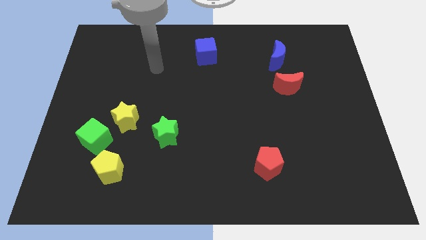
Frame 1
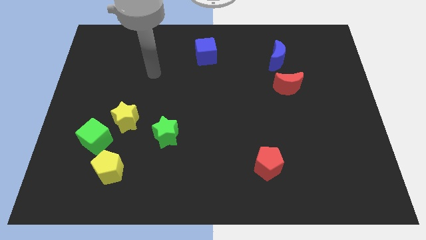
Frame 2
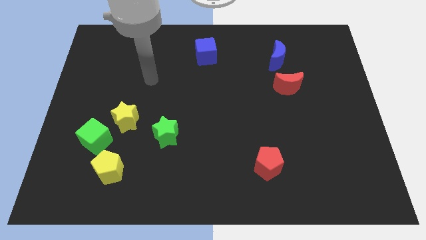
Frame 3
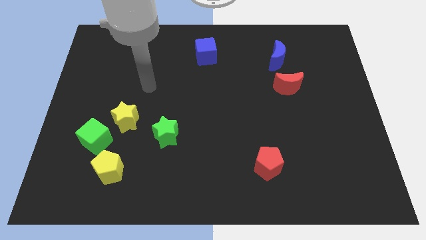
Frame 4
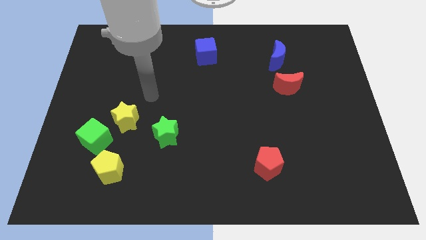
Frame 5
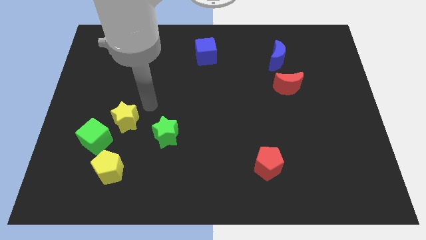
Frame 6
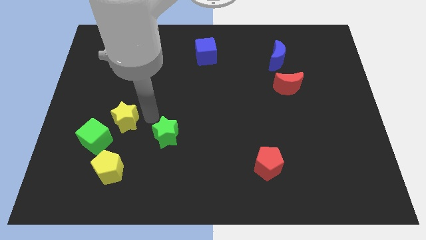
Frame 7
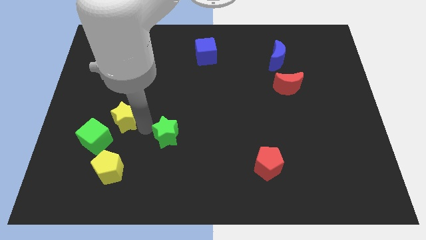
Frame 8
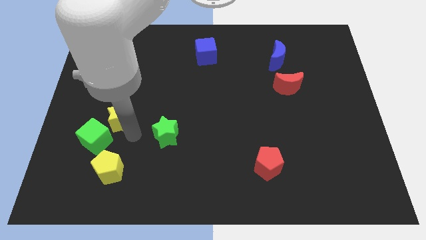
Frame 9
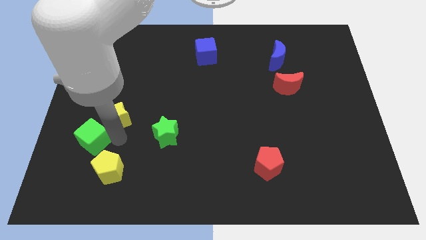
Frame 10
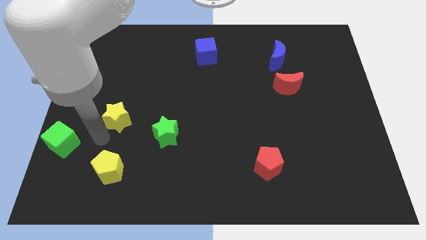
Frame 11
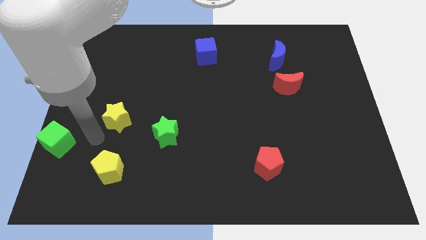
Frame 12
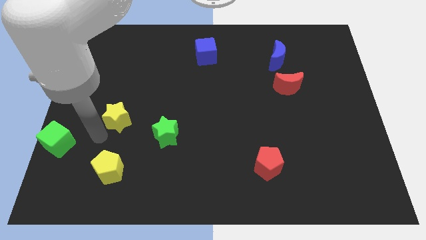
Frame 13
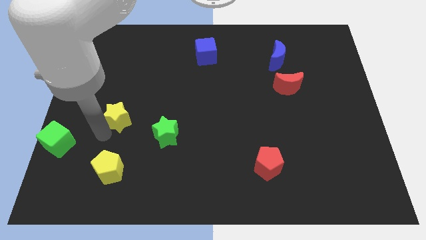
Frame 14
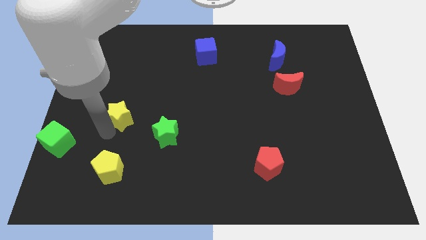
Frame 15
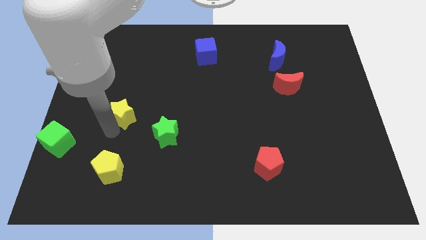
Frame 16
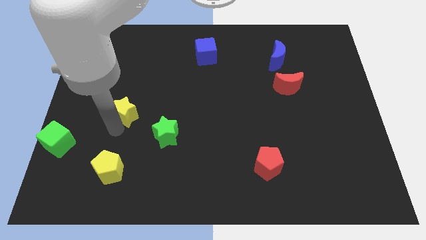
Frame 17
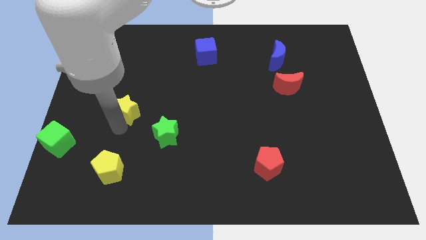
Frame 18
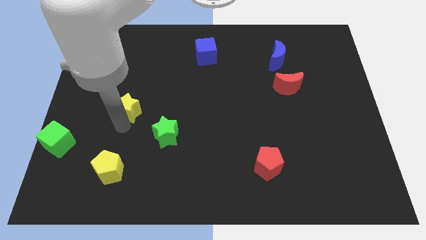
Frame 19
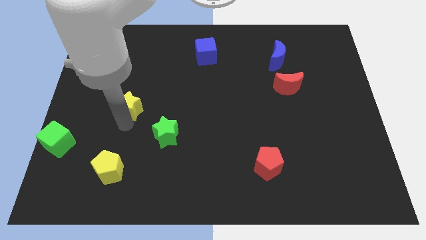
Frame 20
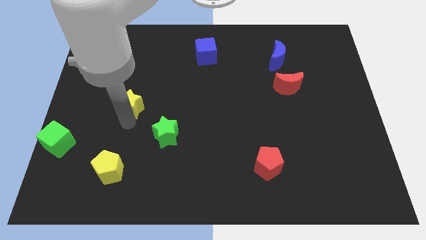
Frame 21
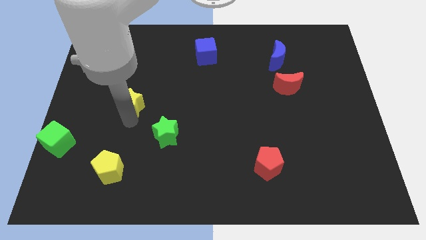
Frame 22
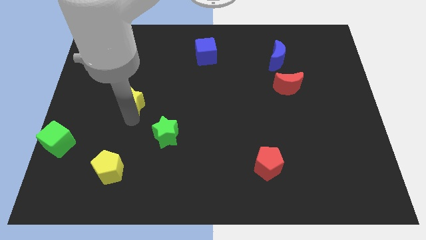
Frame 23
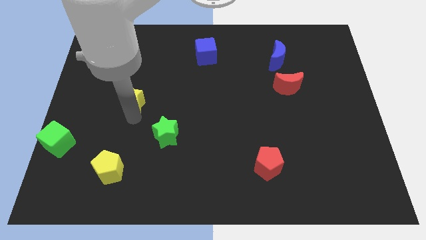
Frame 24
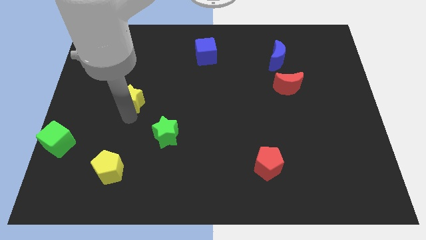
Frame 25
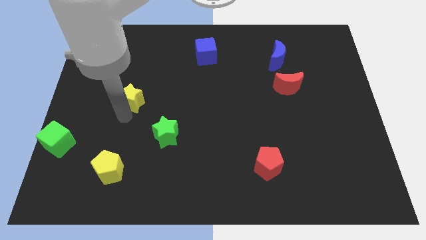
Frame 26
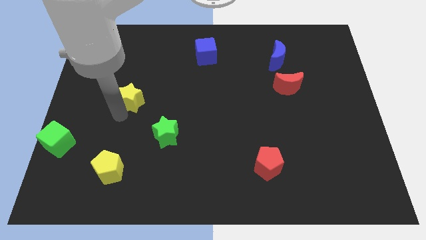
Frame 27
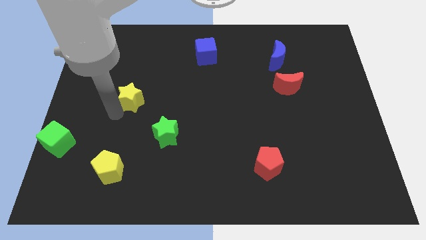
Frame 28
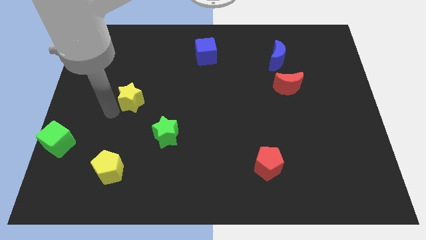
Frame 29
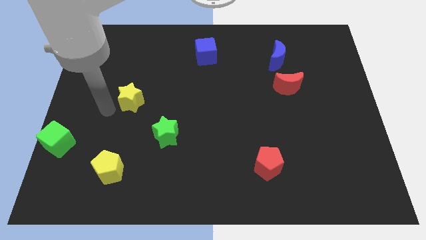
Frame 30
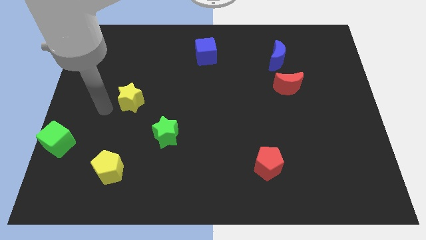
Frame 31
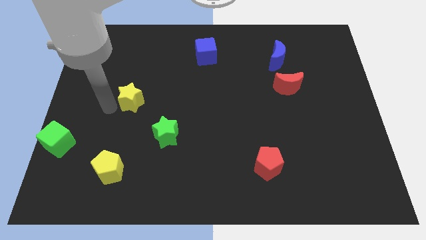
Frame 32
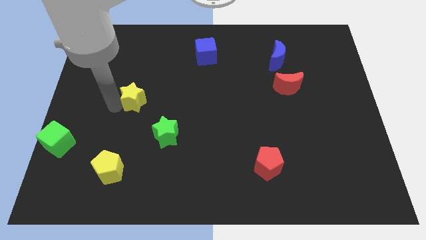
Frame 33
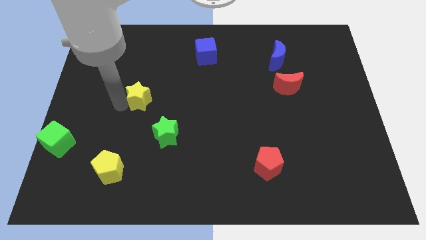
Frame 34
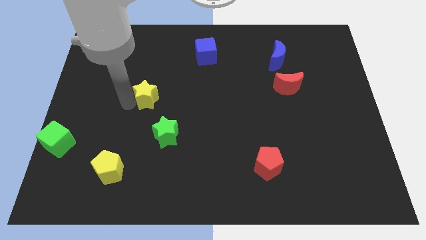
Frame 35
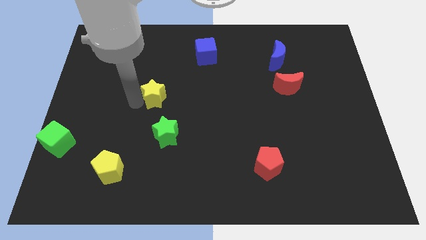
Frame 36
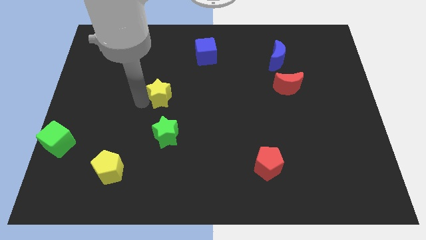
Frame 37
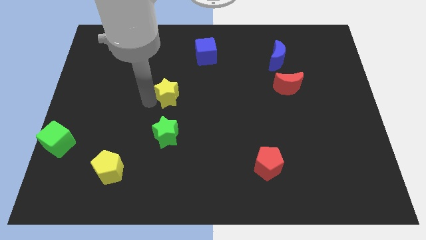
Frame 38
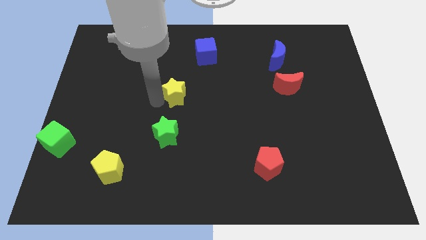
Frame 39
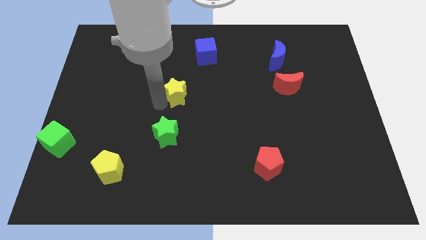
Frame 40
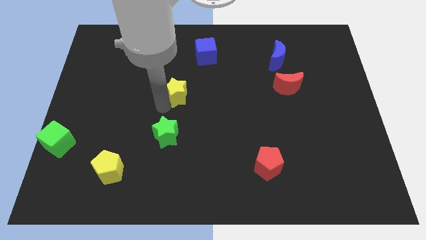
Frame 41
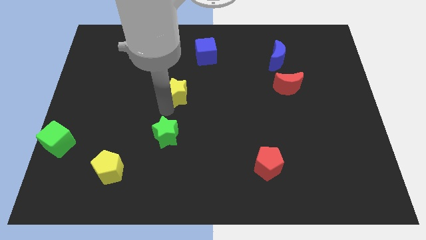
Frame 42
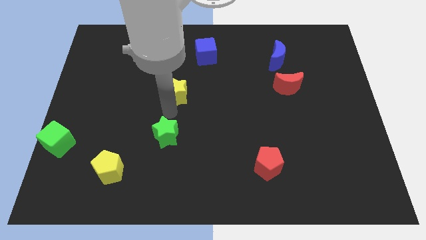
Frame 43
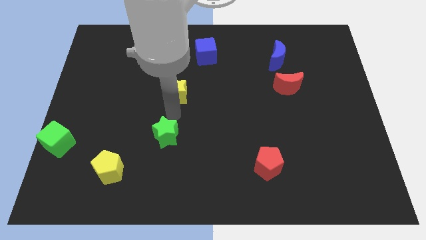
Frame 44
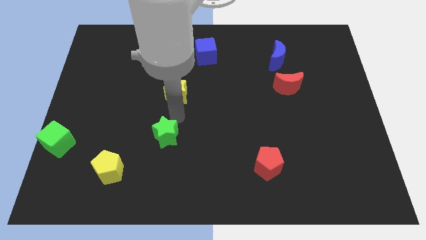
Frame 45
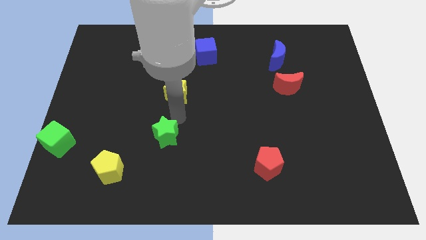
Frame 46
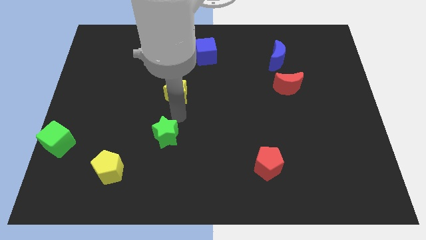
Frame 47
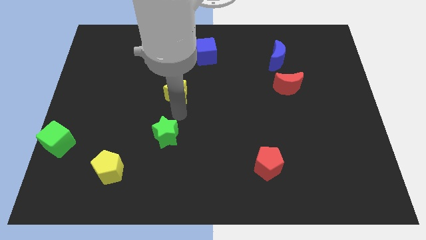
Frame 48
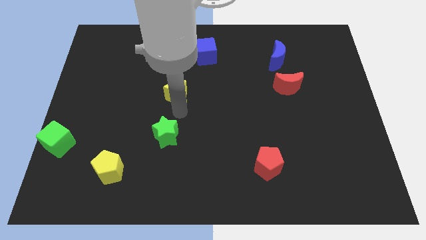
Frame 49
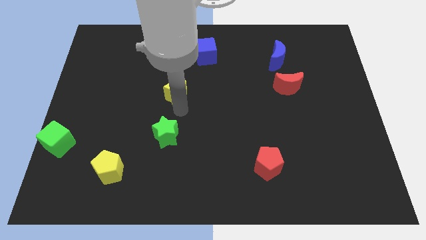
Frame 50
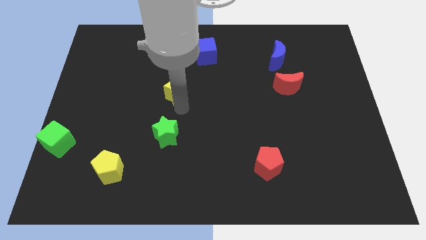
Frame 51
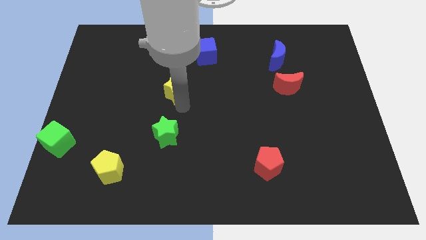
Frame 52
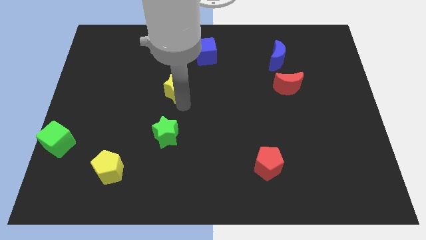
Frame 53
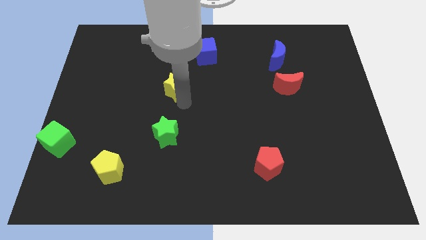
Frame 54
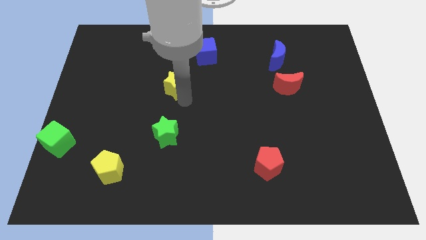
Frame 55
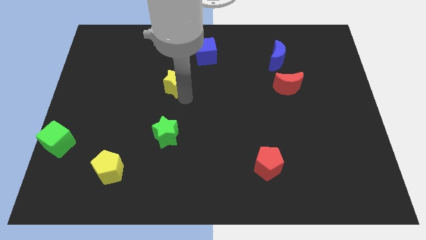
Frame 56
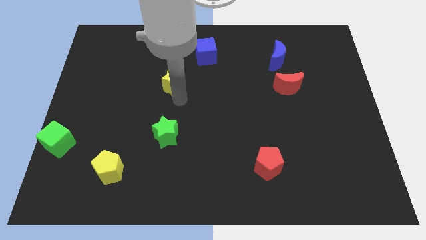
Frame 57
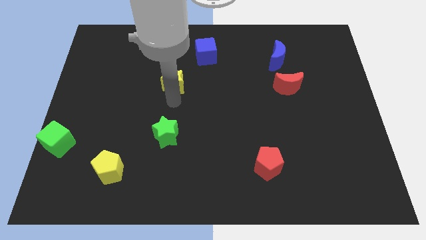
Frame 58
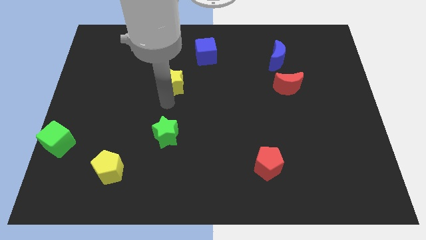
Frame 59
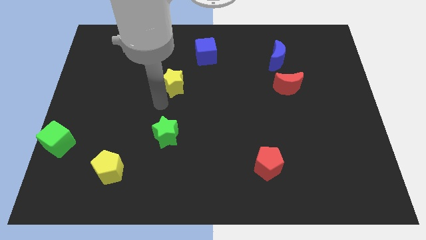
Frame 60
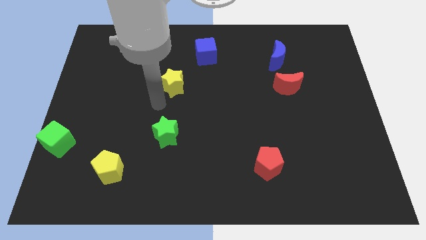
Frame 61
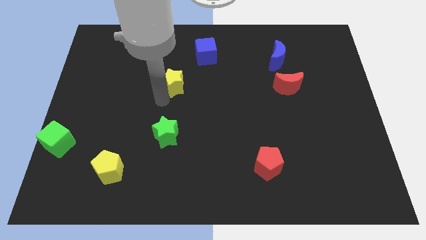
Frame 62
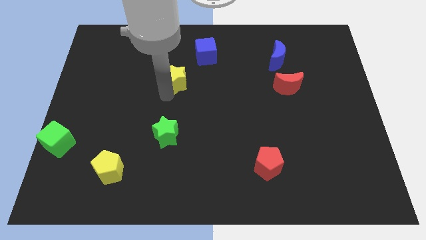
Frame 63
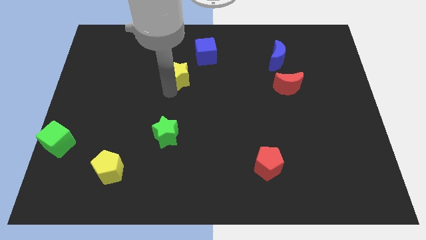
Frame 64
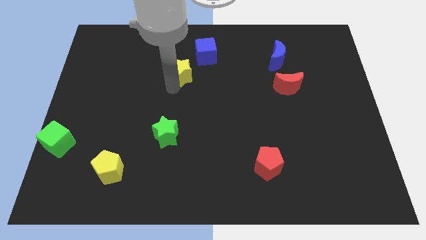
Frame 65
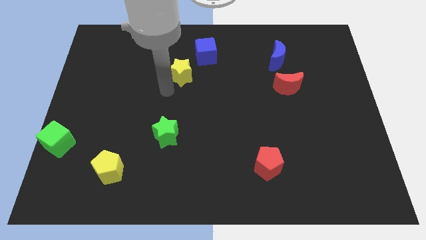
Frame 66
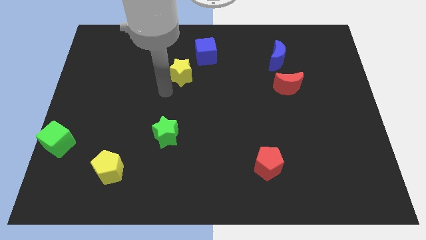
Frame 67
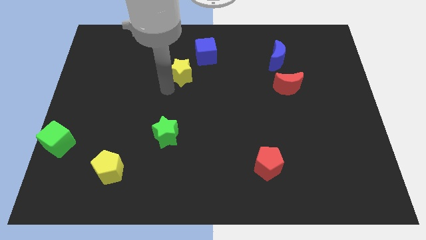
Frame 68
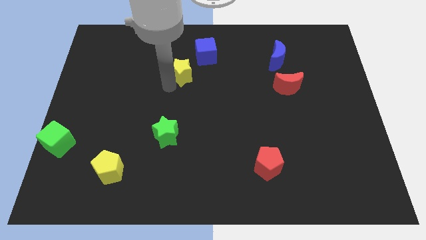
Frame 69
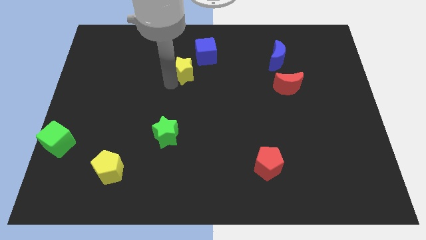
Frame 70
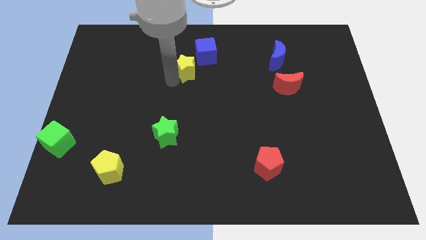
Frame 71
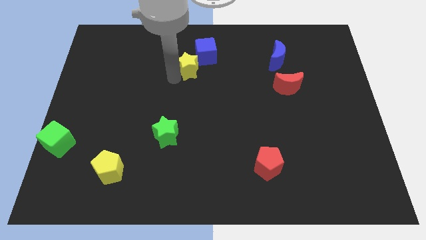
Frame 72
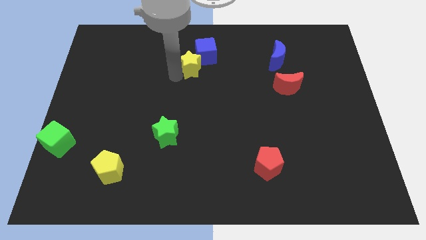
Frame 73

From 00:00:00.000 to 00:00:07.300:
slide the yellow star towards the blue cube
